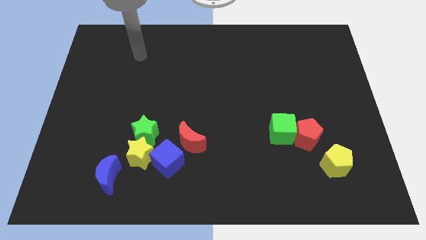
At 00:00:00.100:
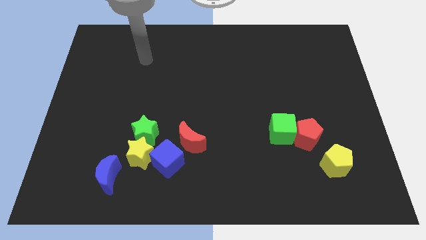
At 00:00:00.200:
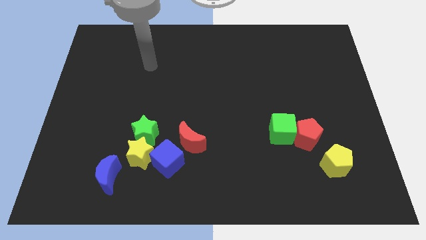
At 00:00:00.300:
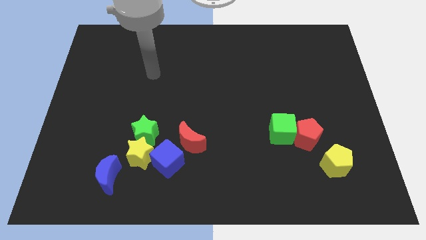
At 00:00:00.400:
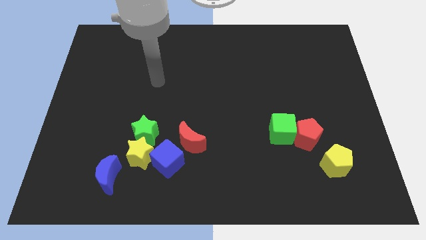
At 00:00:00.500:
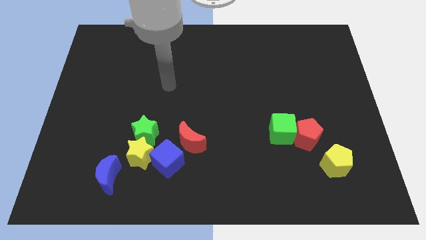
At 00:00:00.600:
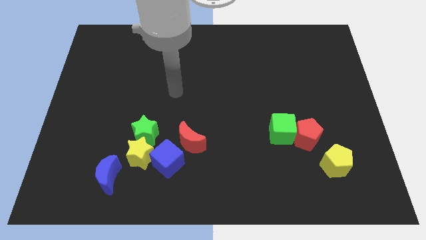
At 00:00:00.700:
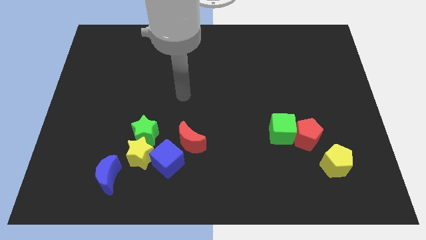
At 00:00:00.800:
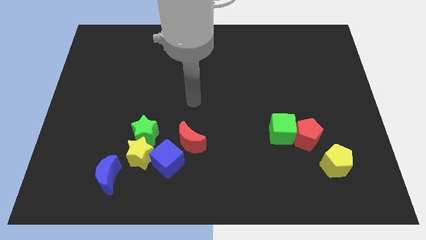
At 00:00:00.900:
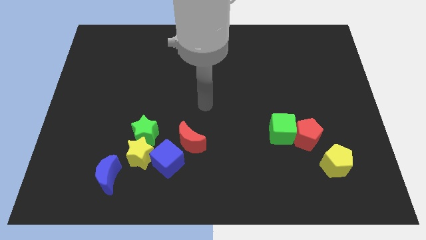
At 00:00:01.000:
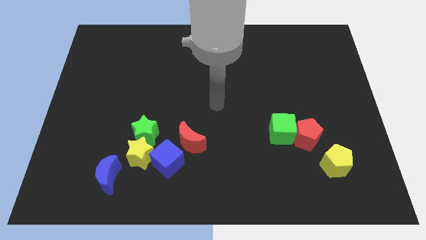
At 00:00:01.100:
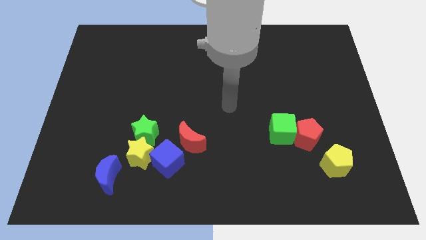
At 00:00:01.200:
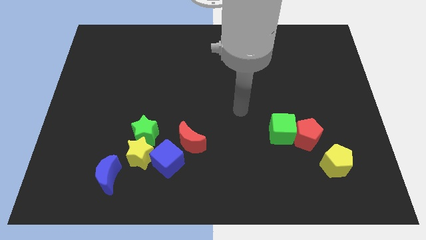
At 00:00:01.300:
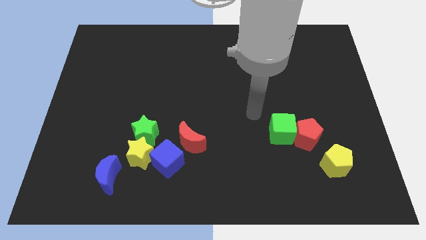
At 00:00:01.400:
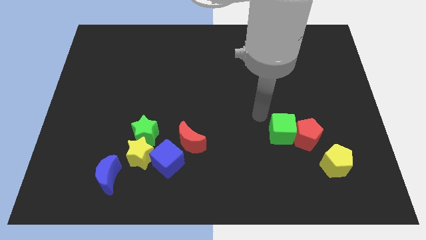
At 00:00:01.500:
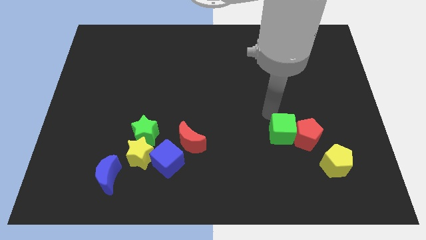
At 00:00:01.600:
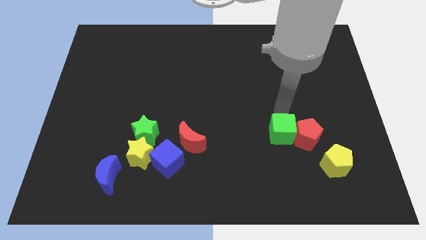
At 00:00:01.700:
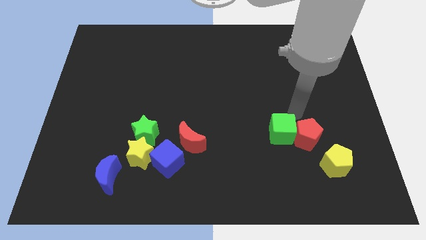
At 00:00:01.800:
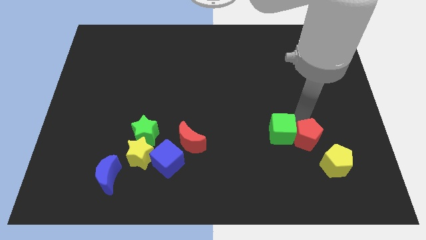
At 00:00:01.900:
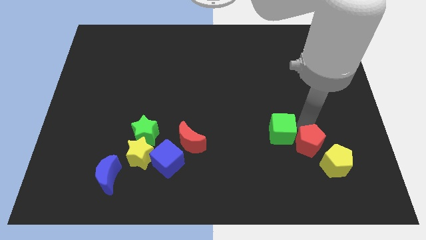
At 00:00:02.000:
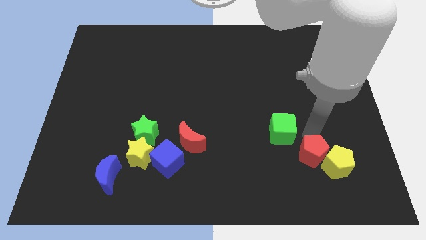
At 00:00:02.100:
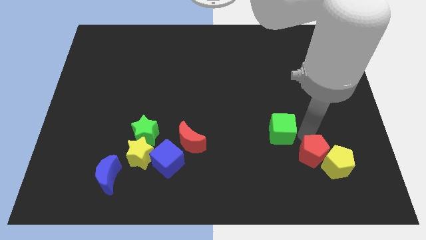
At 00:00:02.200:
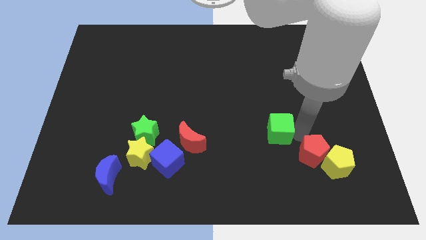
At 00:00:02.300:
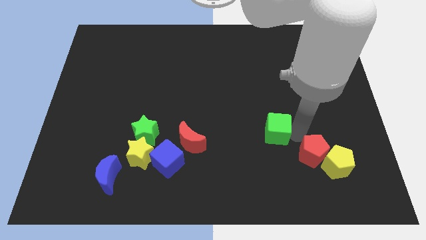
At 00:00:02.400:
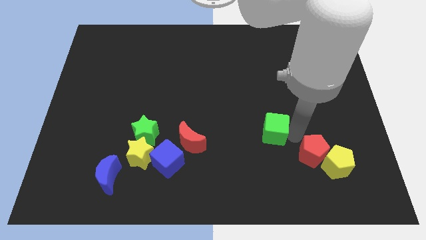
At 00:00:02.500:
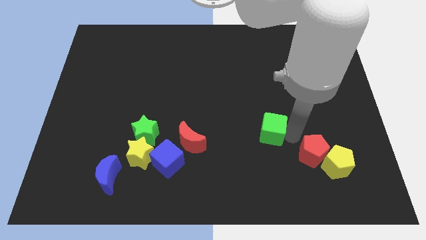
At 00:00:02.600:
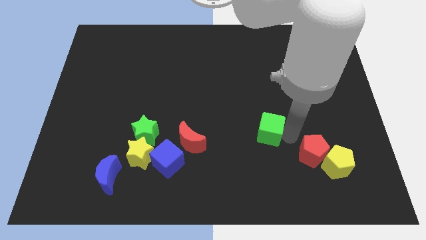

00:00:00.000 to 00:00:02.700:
separate the green cube from the red pentagon

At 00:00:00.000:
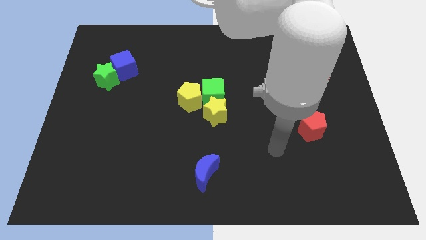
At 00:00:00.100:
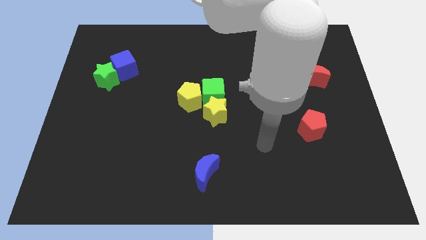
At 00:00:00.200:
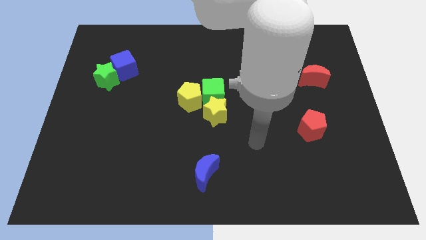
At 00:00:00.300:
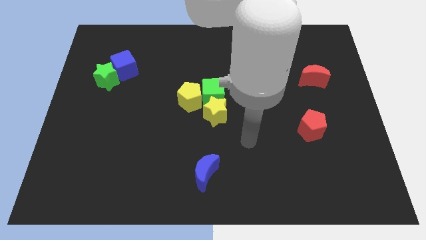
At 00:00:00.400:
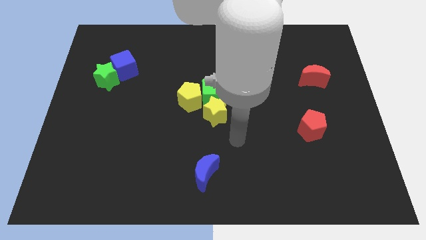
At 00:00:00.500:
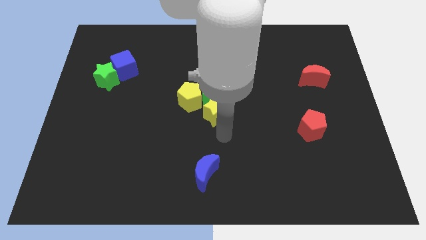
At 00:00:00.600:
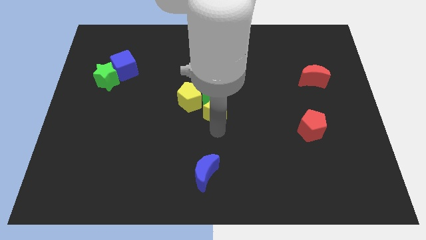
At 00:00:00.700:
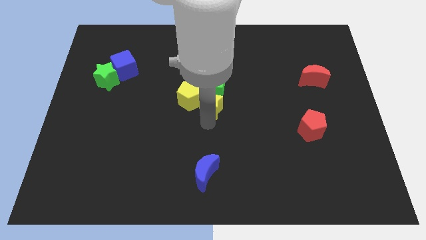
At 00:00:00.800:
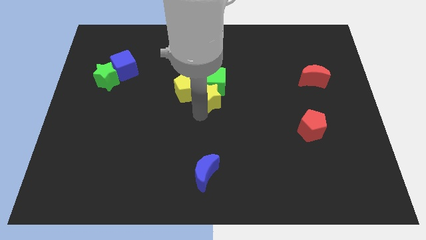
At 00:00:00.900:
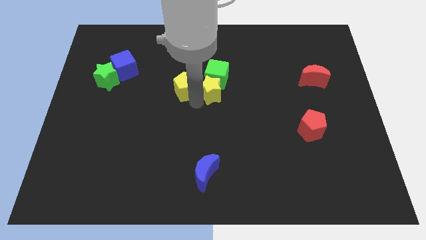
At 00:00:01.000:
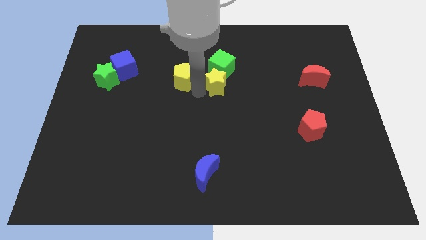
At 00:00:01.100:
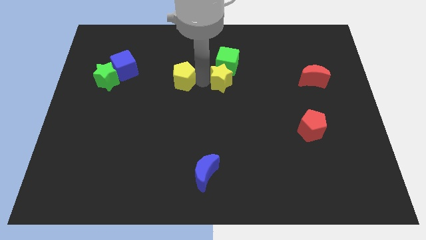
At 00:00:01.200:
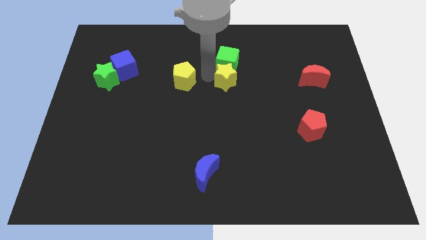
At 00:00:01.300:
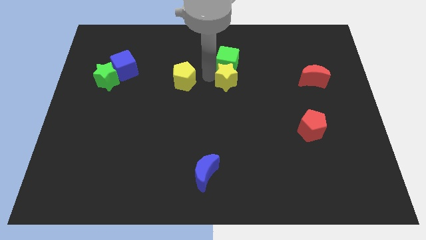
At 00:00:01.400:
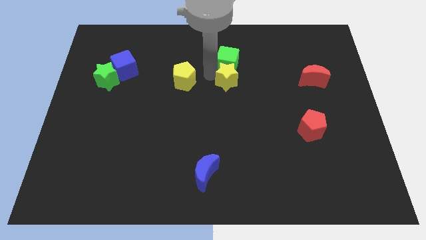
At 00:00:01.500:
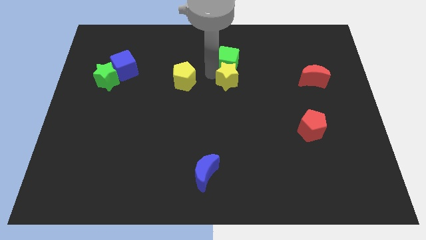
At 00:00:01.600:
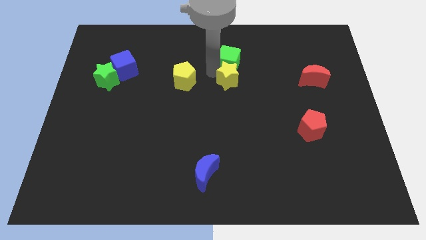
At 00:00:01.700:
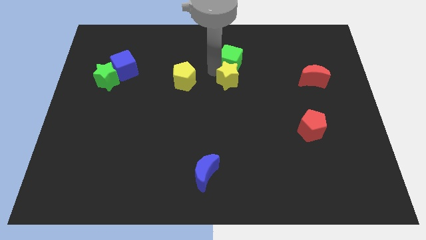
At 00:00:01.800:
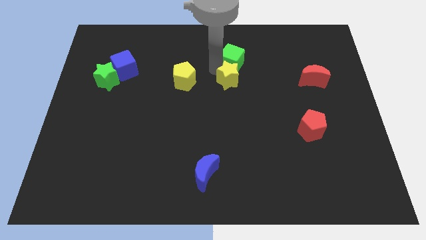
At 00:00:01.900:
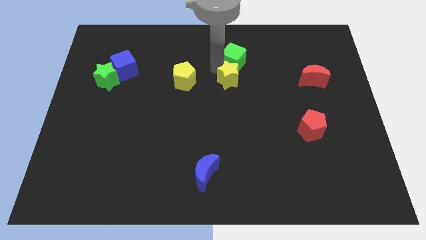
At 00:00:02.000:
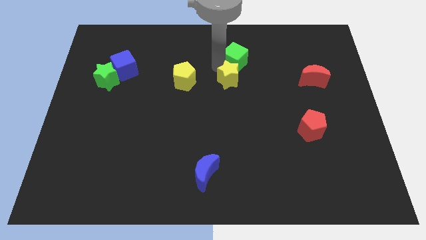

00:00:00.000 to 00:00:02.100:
pull the green cube apart from the yellow pentagon and yellow star

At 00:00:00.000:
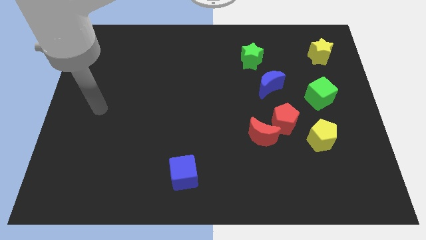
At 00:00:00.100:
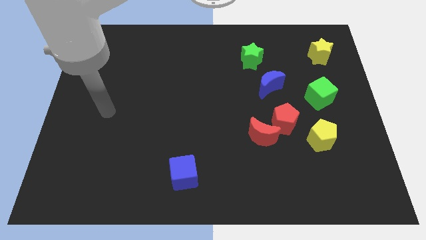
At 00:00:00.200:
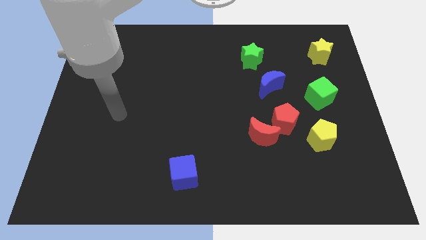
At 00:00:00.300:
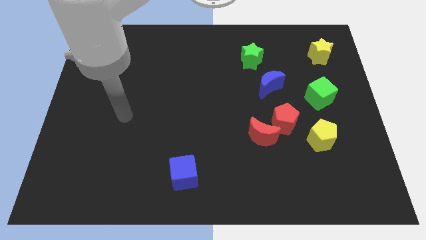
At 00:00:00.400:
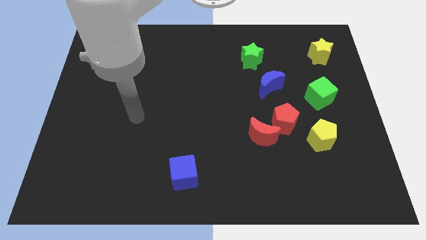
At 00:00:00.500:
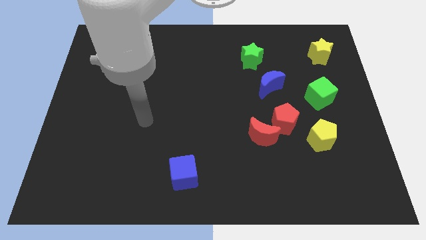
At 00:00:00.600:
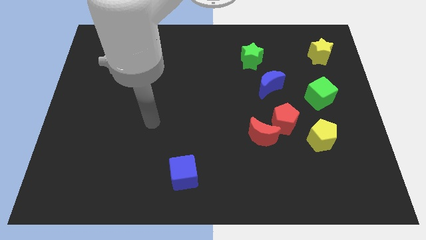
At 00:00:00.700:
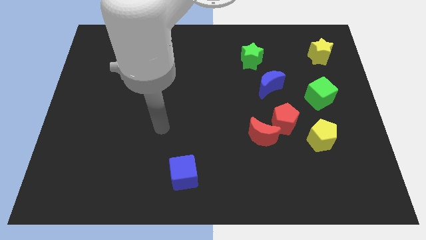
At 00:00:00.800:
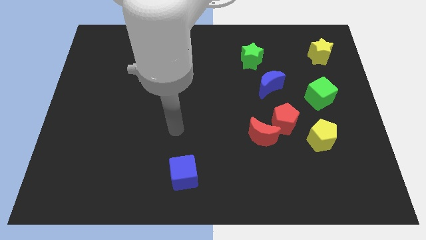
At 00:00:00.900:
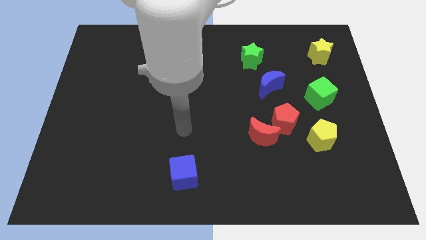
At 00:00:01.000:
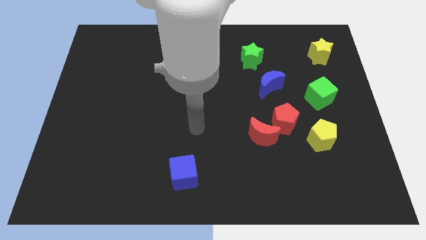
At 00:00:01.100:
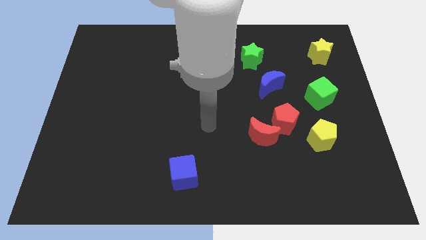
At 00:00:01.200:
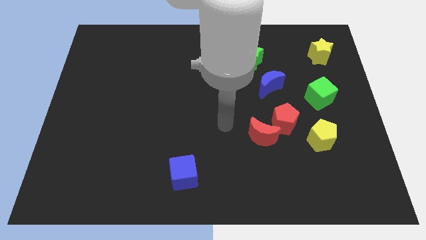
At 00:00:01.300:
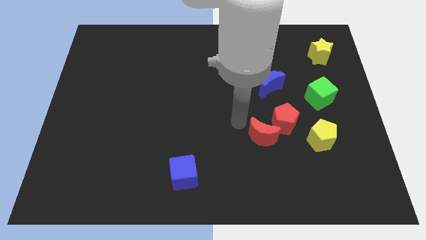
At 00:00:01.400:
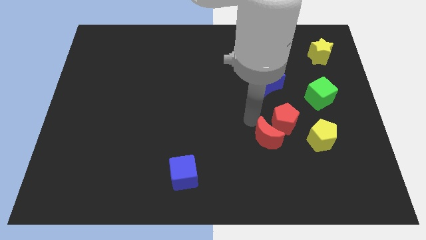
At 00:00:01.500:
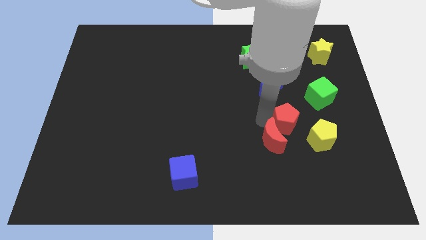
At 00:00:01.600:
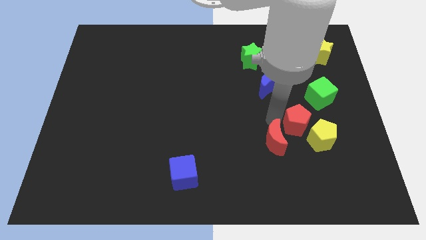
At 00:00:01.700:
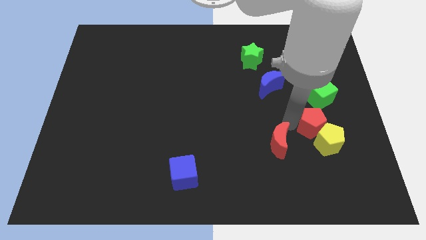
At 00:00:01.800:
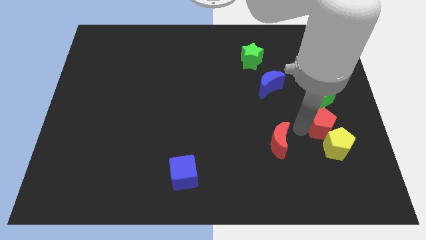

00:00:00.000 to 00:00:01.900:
separate the red moon from the red pentagon

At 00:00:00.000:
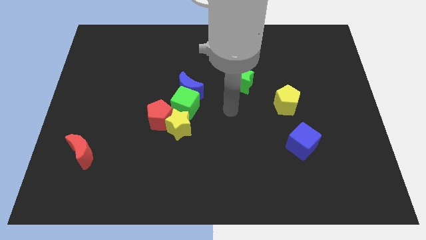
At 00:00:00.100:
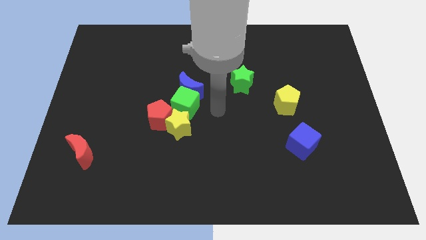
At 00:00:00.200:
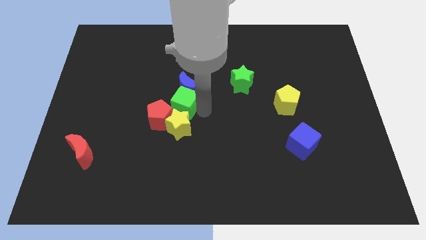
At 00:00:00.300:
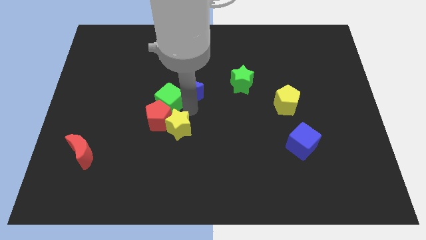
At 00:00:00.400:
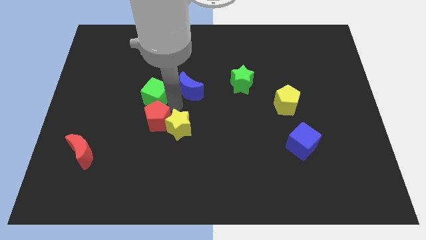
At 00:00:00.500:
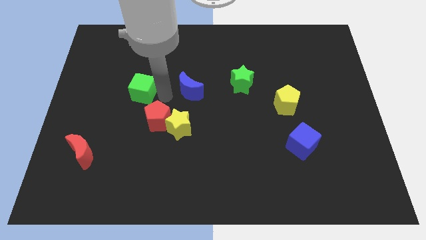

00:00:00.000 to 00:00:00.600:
move the blue moon away from the green cube

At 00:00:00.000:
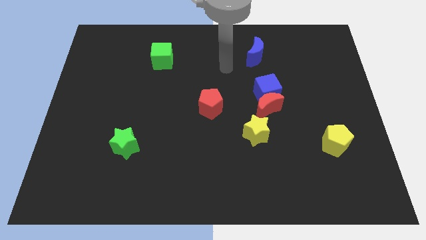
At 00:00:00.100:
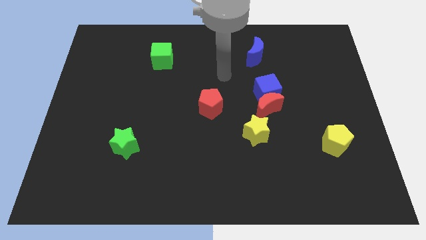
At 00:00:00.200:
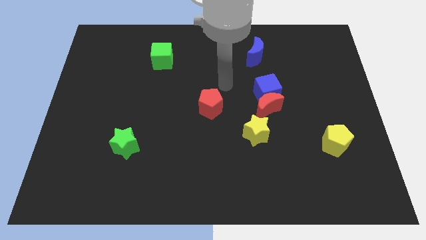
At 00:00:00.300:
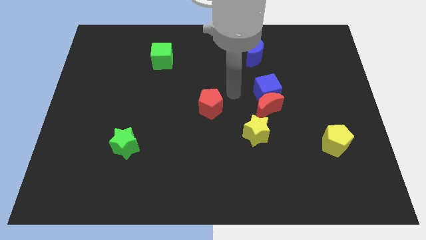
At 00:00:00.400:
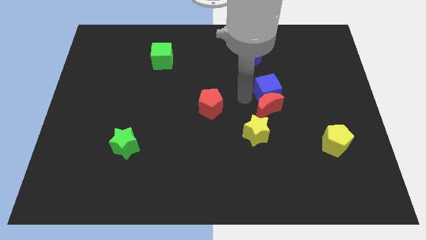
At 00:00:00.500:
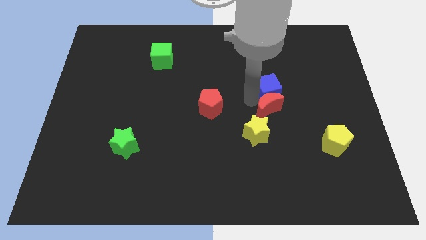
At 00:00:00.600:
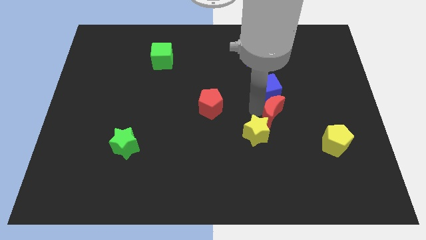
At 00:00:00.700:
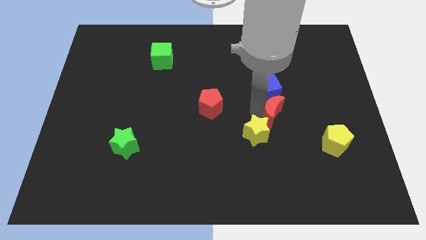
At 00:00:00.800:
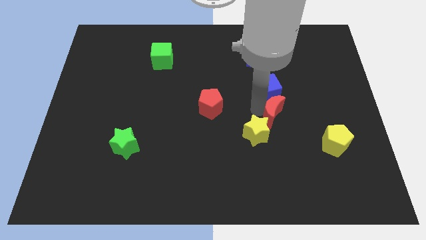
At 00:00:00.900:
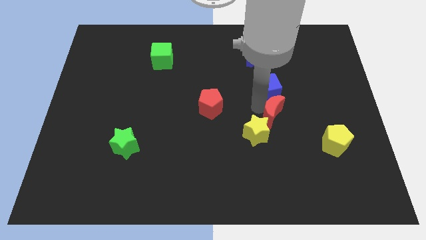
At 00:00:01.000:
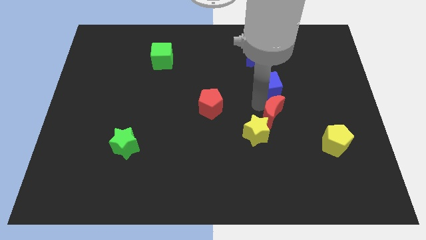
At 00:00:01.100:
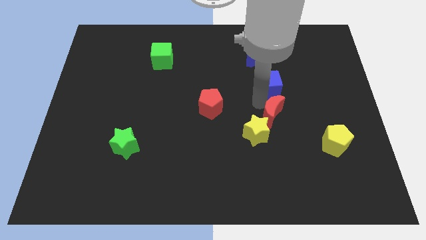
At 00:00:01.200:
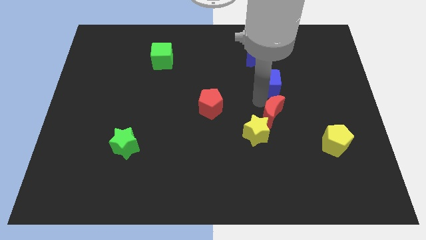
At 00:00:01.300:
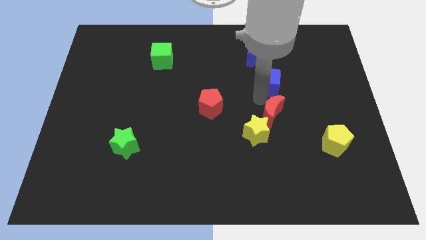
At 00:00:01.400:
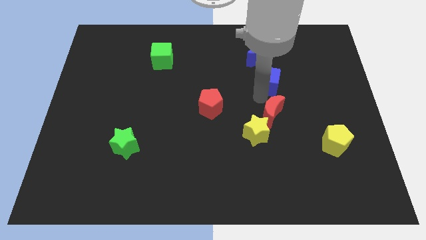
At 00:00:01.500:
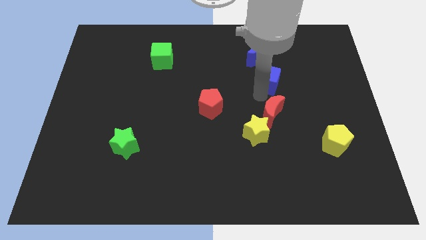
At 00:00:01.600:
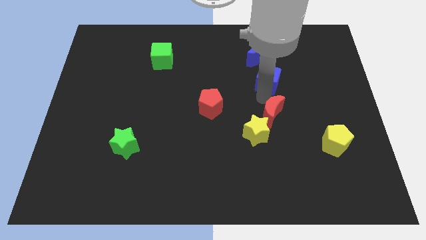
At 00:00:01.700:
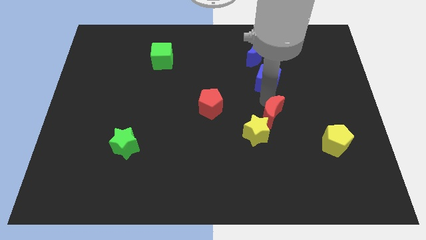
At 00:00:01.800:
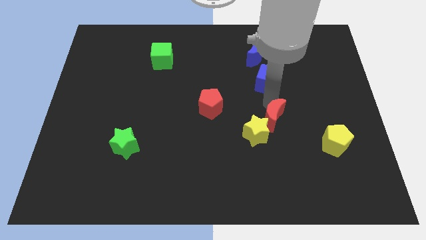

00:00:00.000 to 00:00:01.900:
pull the blue cube apart from the red moon
